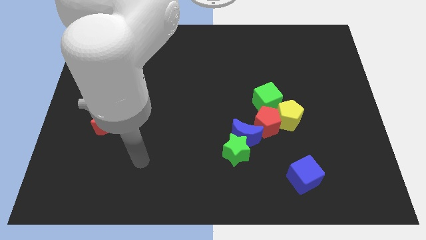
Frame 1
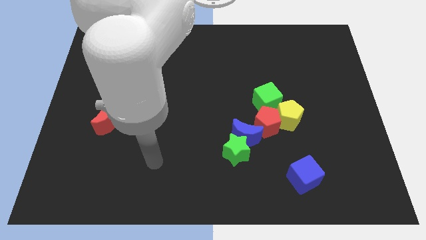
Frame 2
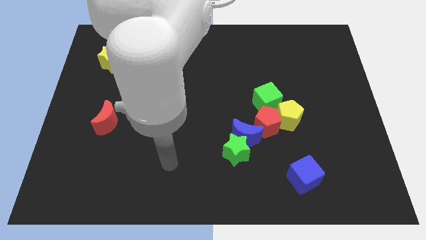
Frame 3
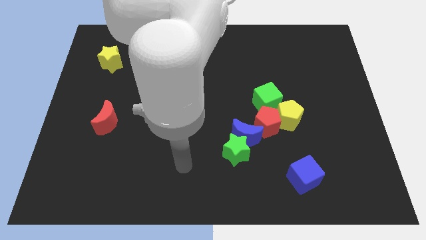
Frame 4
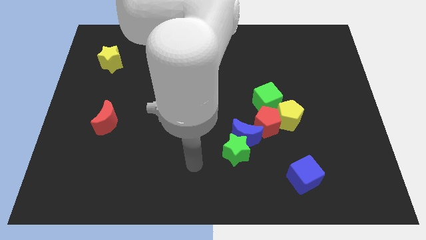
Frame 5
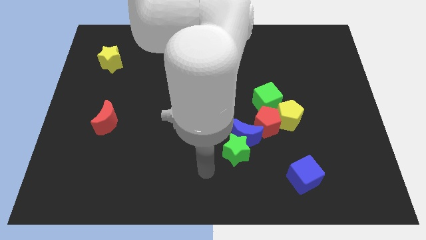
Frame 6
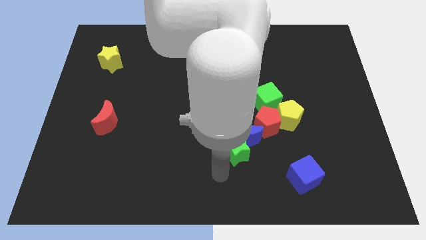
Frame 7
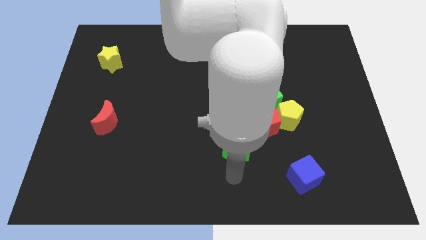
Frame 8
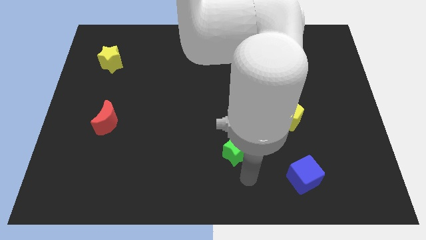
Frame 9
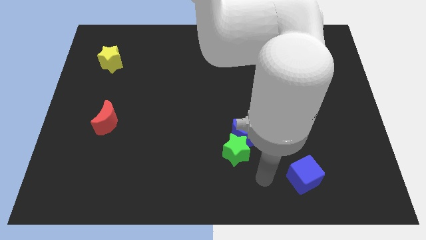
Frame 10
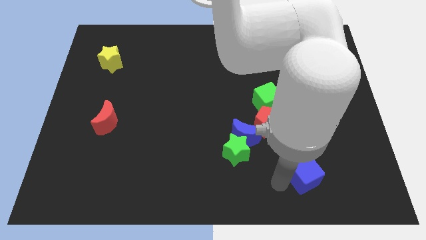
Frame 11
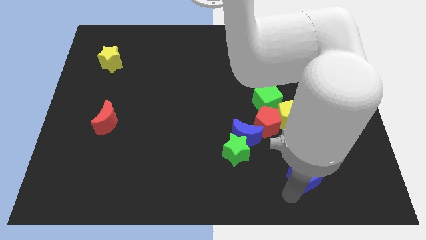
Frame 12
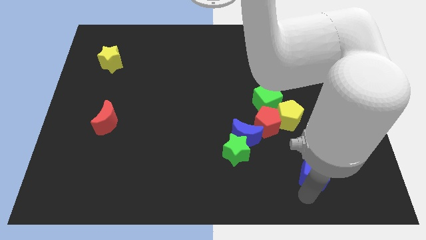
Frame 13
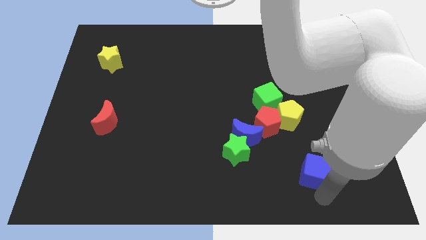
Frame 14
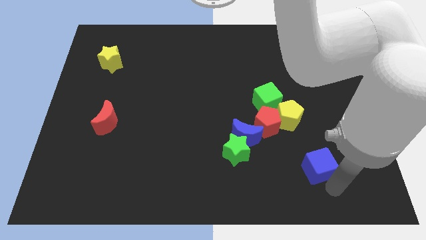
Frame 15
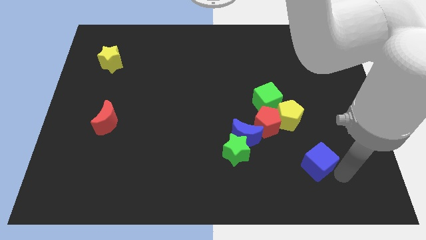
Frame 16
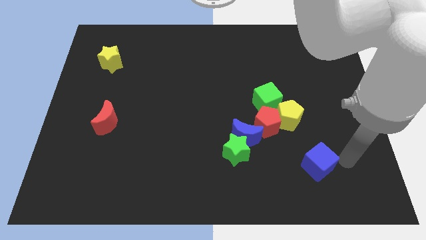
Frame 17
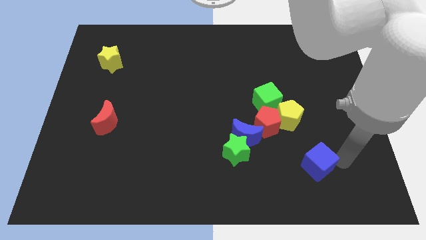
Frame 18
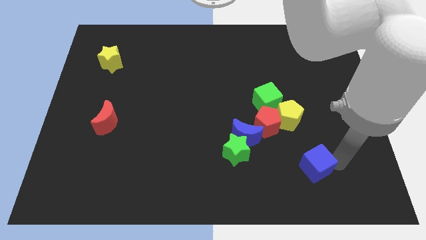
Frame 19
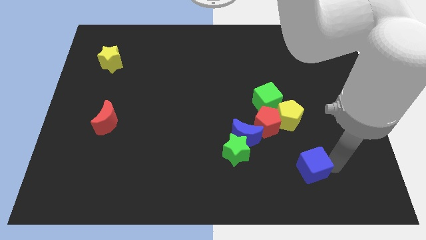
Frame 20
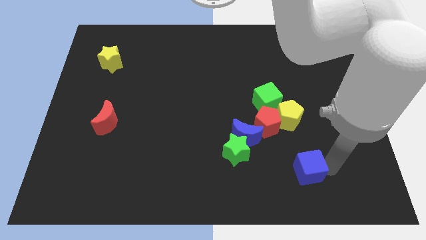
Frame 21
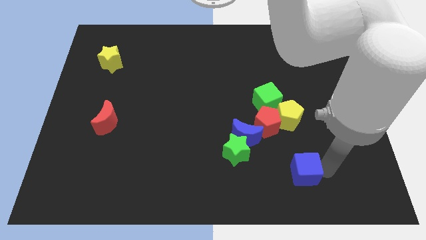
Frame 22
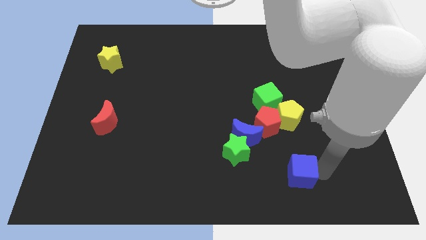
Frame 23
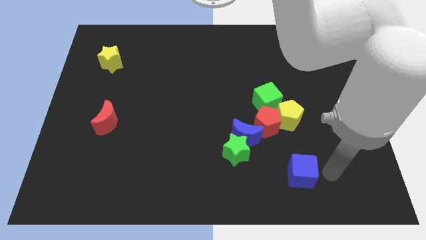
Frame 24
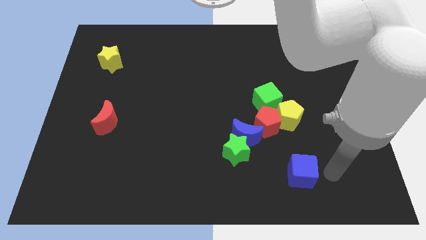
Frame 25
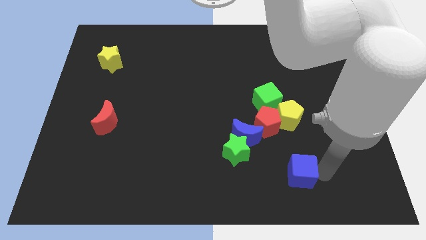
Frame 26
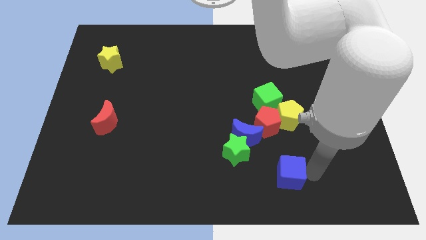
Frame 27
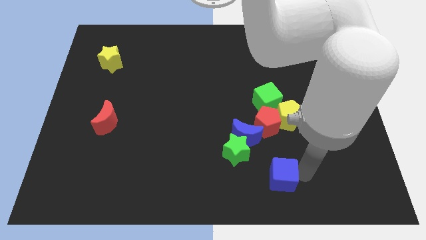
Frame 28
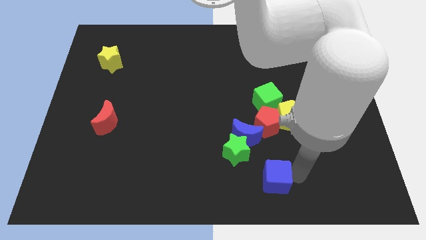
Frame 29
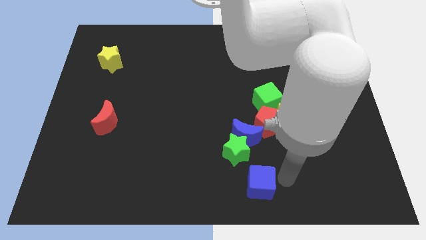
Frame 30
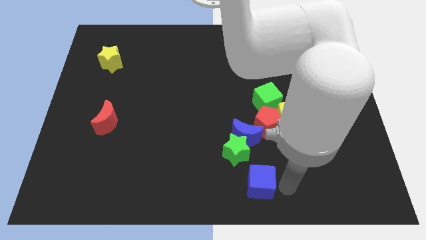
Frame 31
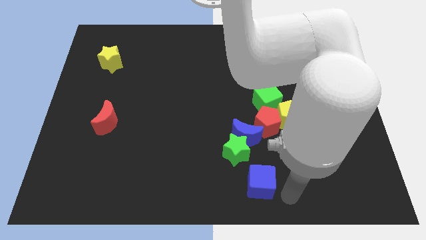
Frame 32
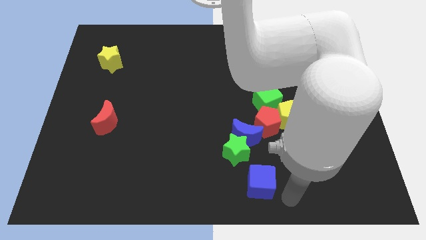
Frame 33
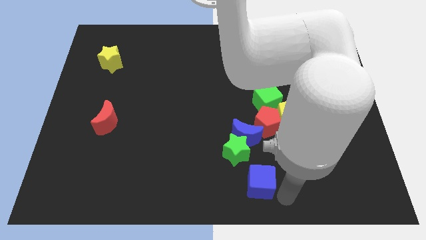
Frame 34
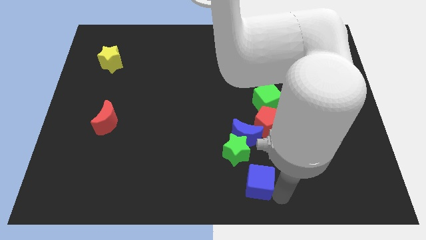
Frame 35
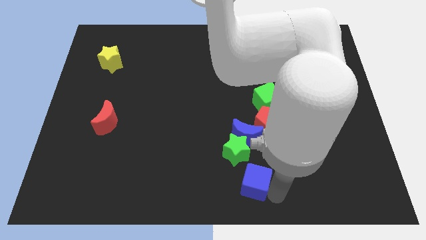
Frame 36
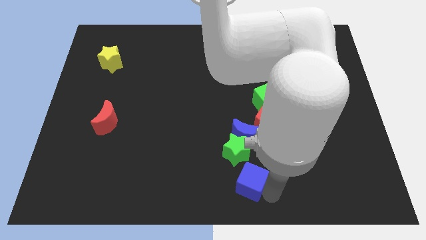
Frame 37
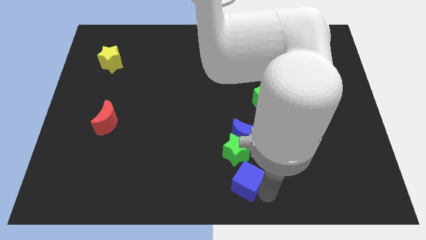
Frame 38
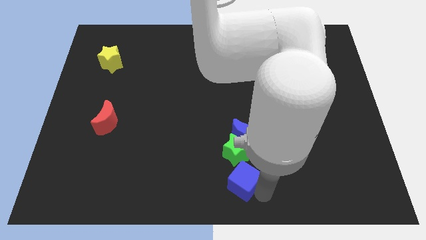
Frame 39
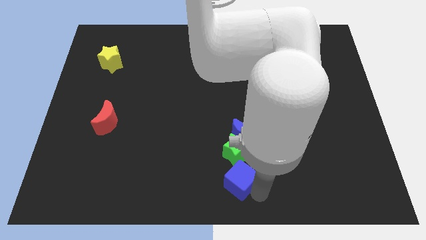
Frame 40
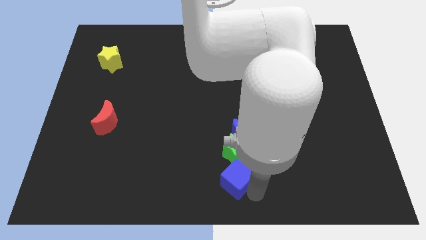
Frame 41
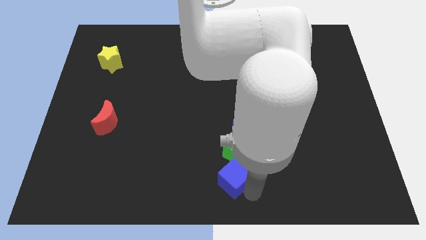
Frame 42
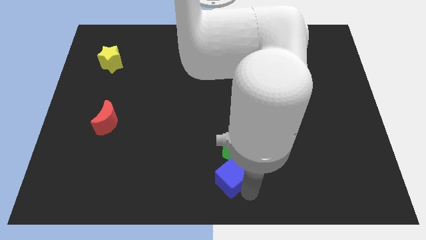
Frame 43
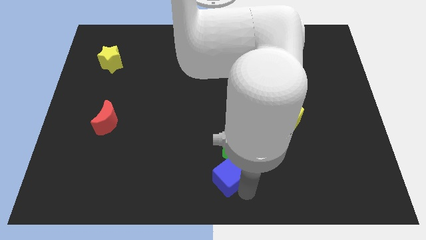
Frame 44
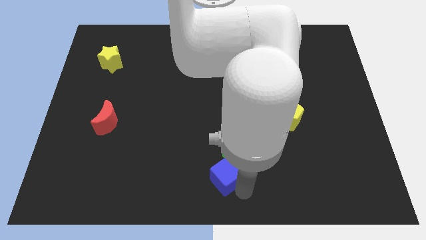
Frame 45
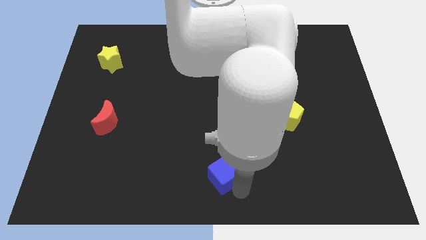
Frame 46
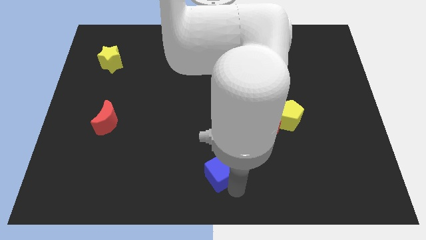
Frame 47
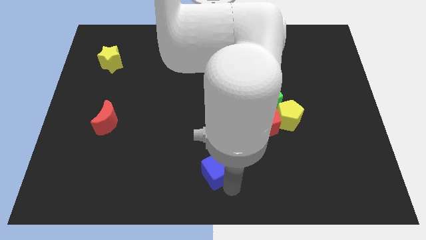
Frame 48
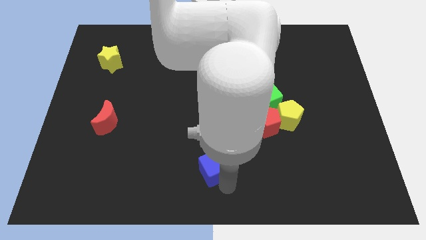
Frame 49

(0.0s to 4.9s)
move the blue cube diagonally upwards and left a little

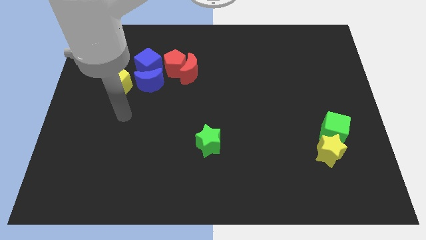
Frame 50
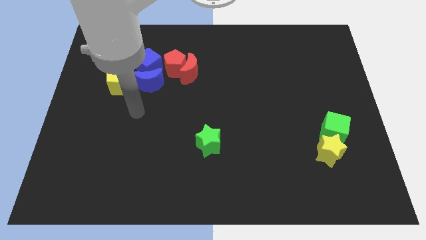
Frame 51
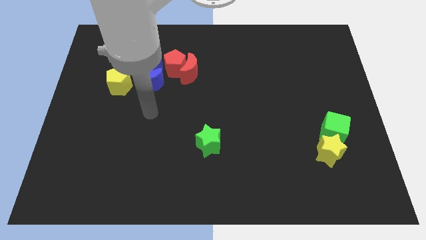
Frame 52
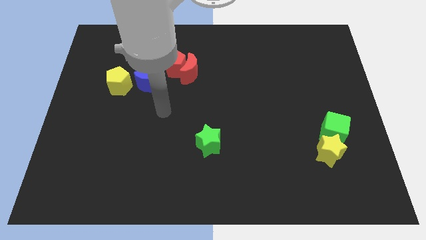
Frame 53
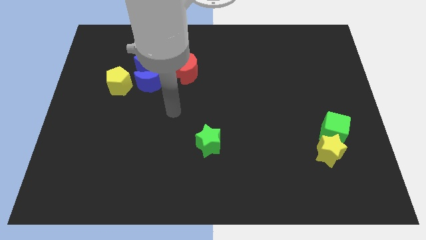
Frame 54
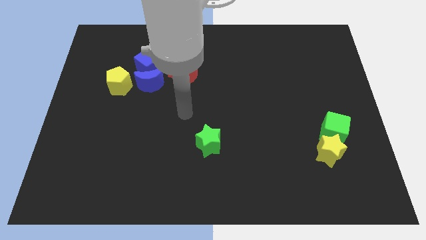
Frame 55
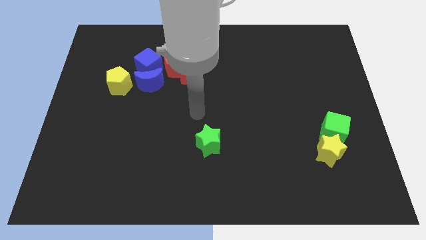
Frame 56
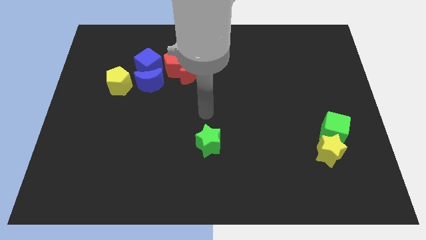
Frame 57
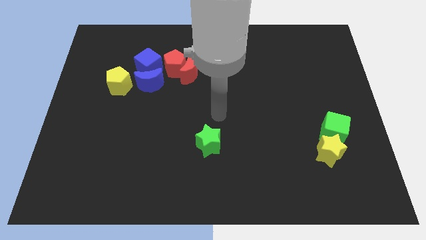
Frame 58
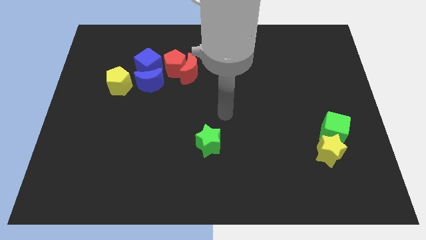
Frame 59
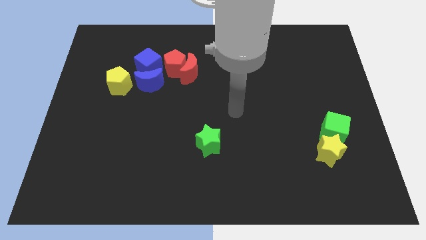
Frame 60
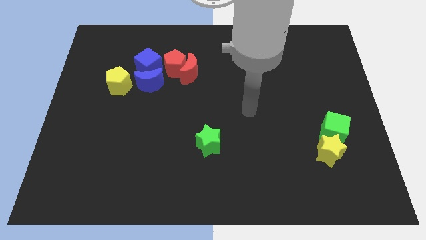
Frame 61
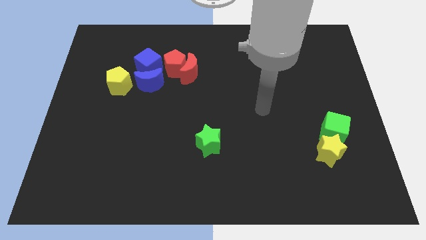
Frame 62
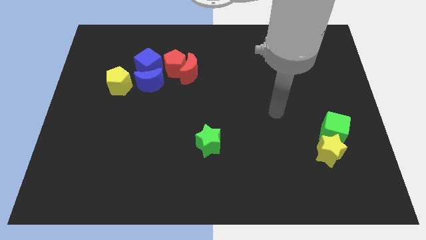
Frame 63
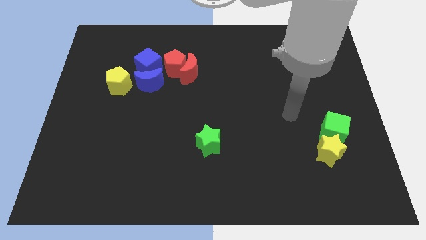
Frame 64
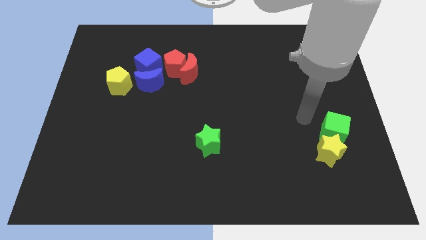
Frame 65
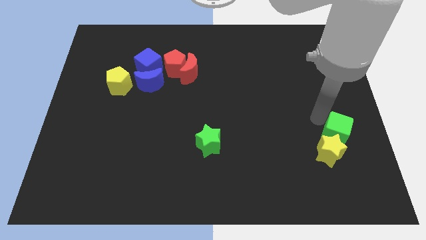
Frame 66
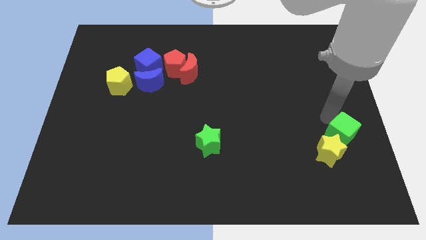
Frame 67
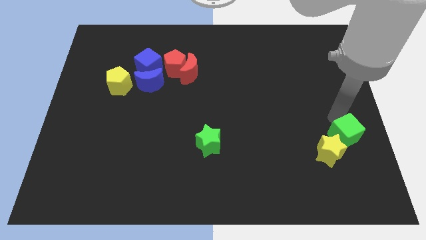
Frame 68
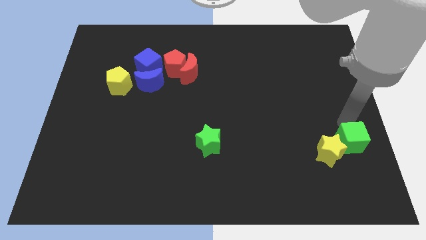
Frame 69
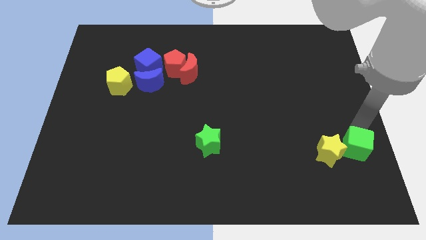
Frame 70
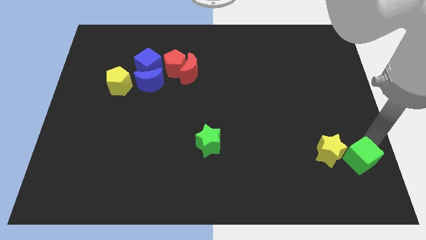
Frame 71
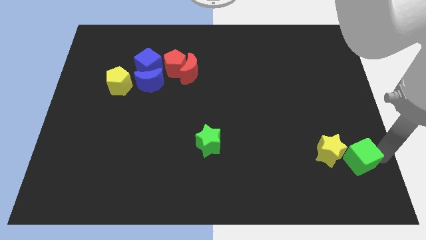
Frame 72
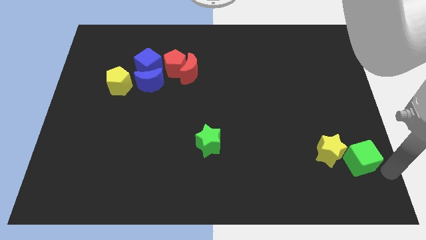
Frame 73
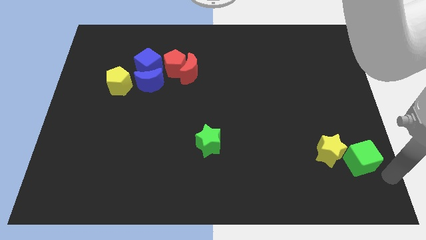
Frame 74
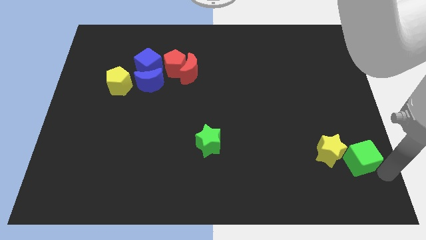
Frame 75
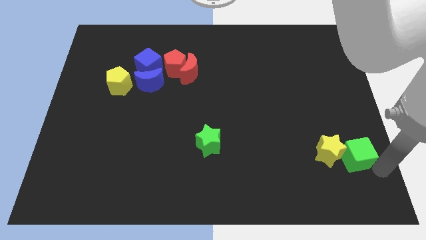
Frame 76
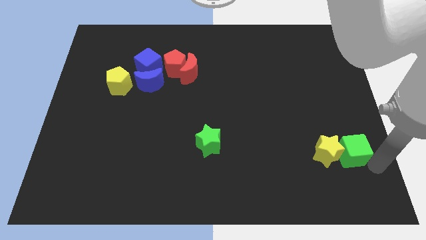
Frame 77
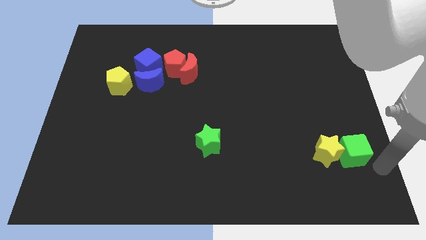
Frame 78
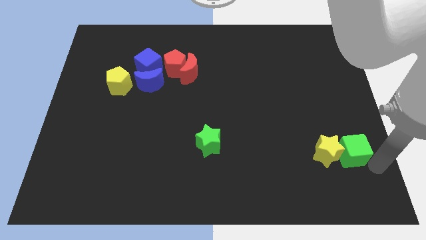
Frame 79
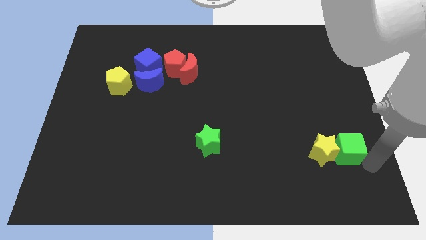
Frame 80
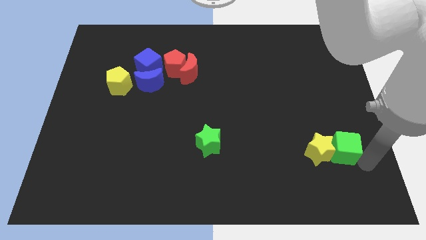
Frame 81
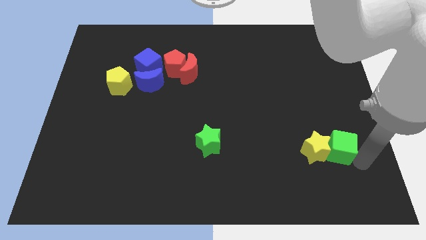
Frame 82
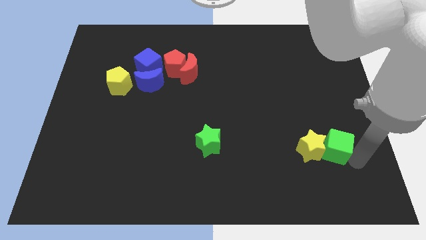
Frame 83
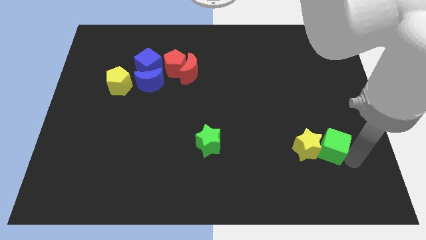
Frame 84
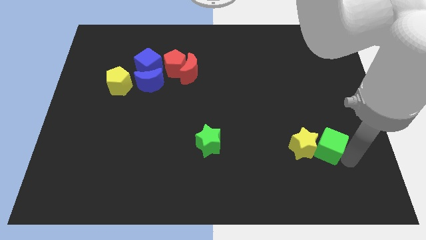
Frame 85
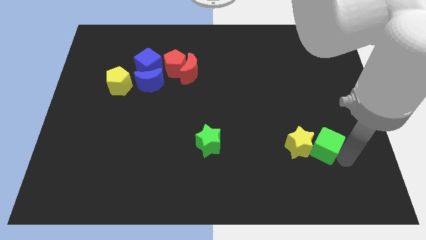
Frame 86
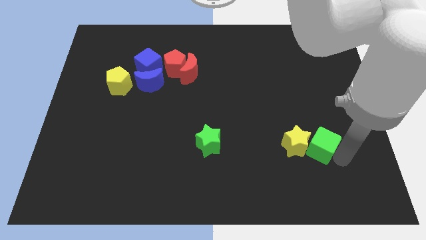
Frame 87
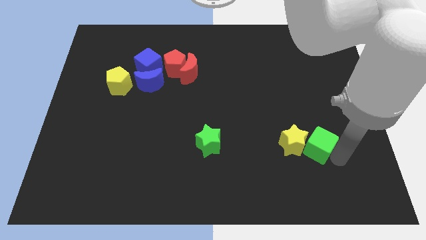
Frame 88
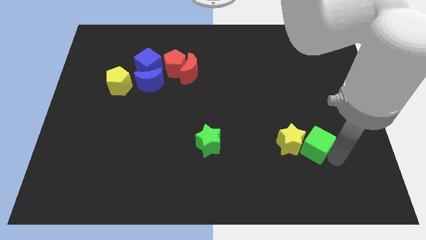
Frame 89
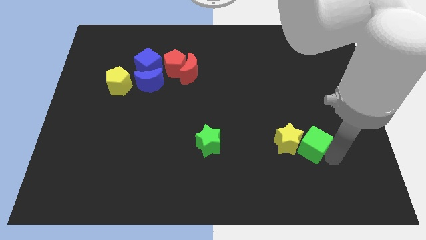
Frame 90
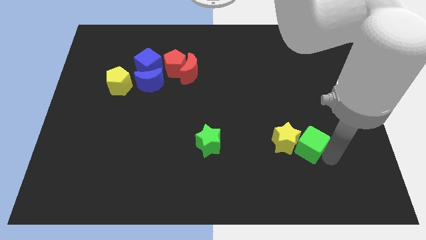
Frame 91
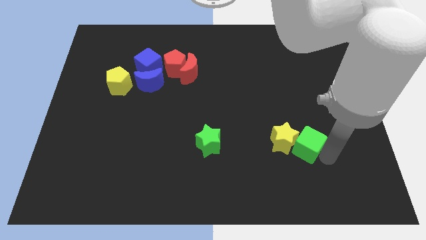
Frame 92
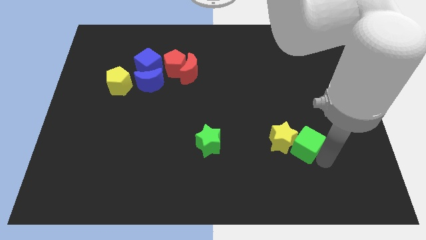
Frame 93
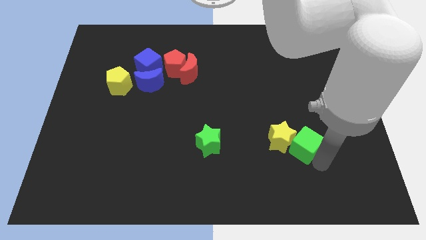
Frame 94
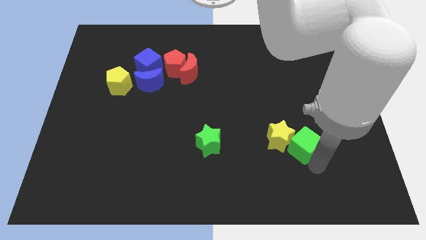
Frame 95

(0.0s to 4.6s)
push the green cube left a bit
